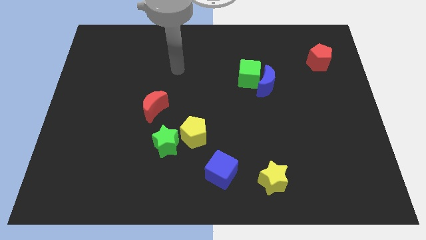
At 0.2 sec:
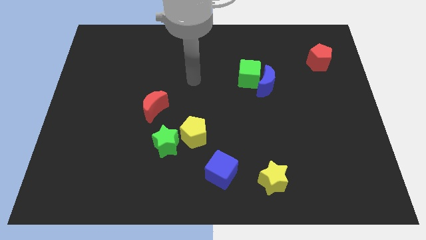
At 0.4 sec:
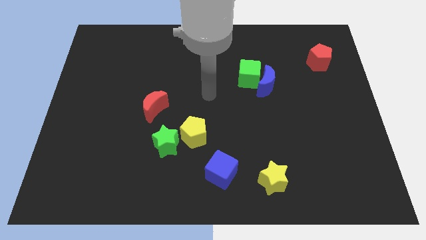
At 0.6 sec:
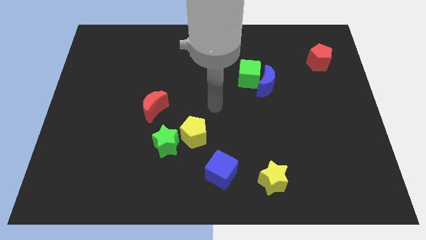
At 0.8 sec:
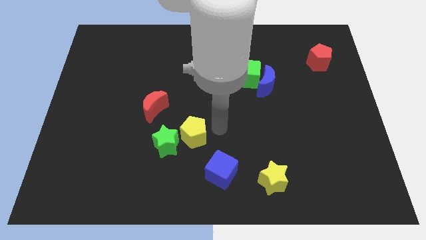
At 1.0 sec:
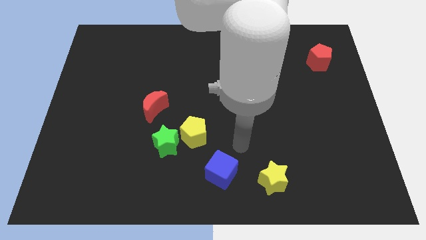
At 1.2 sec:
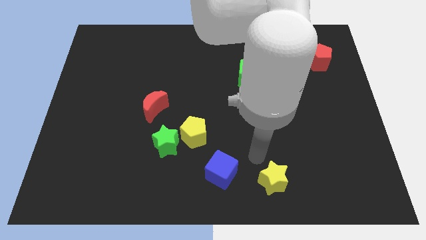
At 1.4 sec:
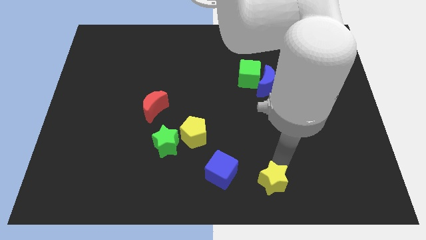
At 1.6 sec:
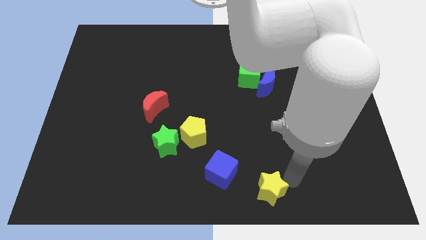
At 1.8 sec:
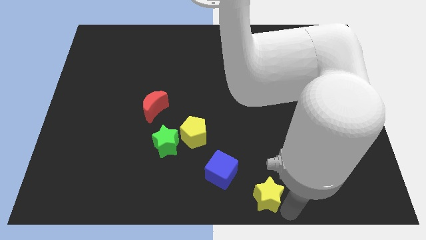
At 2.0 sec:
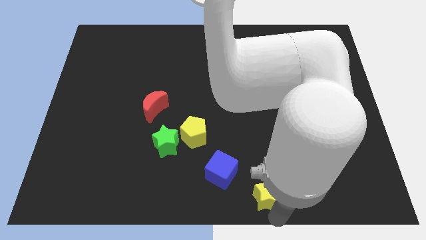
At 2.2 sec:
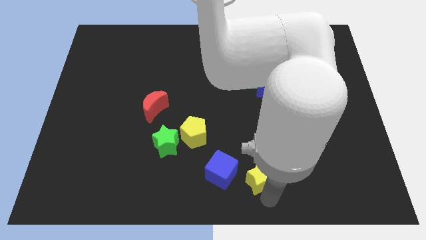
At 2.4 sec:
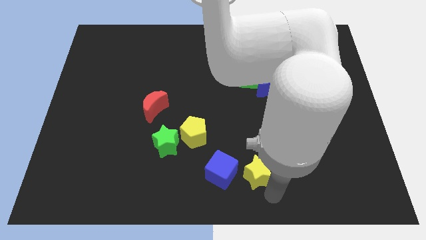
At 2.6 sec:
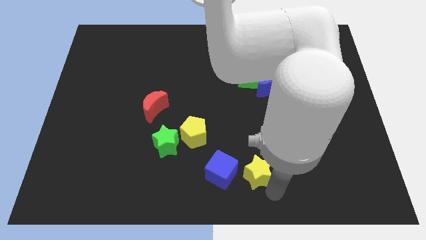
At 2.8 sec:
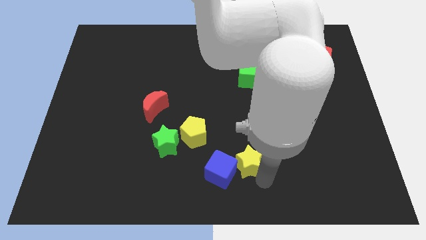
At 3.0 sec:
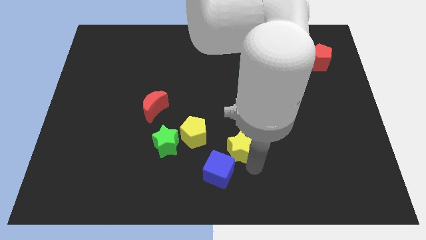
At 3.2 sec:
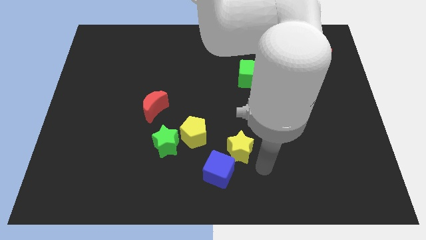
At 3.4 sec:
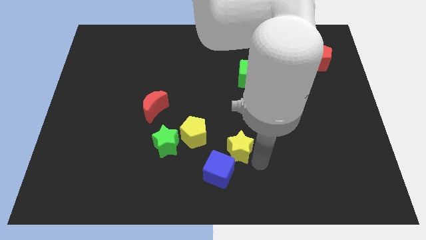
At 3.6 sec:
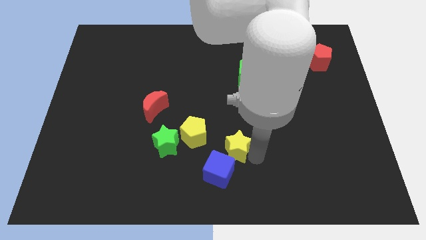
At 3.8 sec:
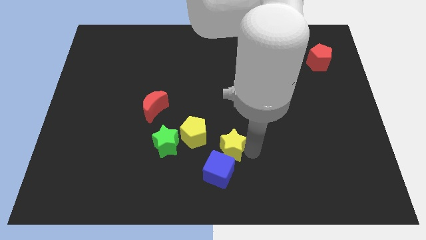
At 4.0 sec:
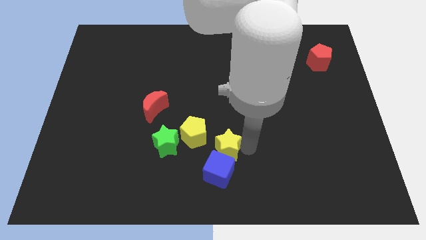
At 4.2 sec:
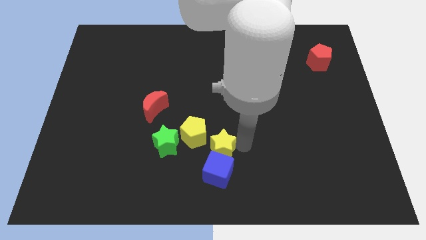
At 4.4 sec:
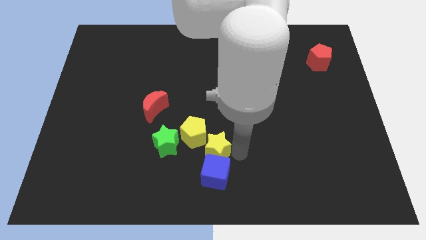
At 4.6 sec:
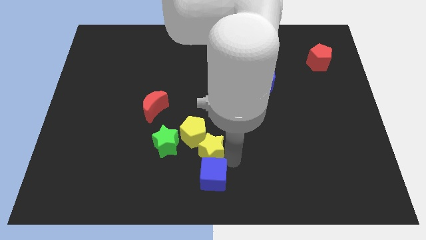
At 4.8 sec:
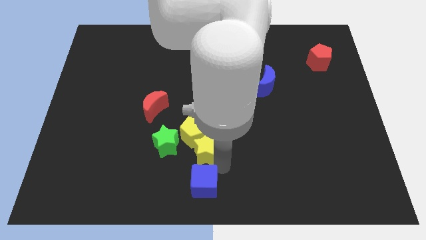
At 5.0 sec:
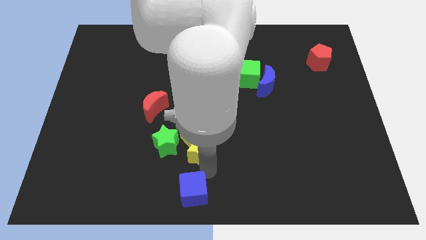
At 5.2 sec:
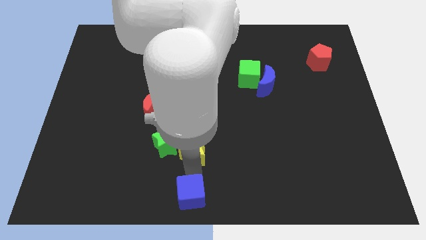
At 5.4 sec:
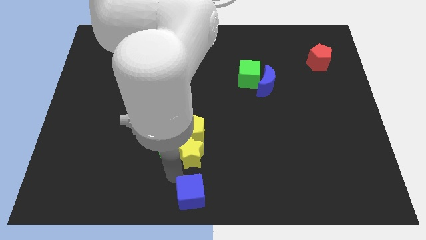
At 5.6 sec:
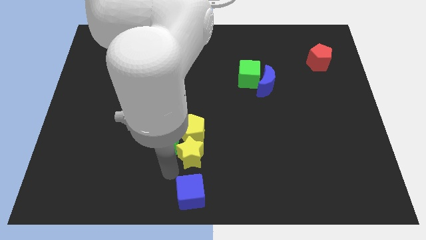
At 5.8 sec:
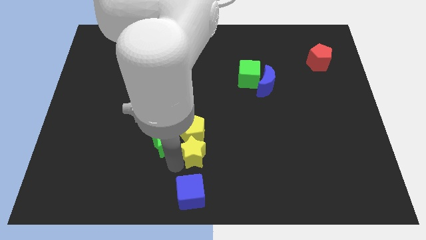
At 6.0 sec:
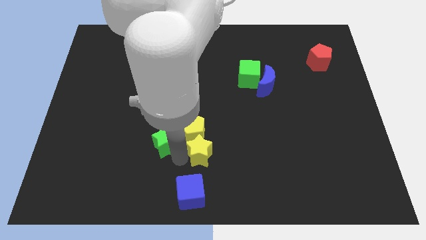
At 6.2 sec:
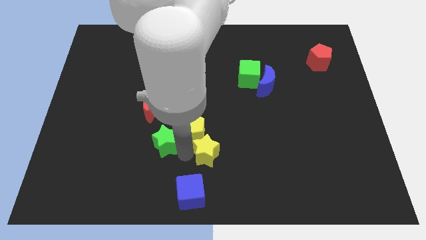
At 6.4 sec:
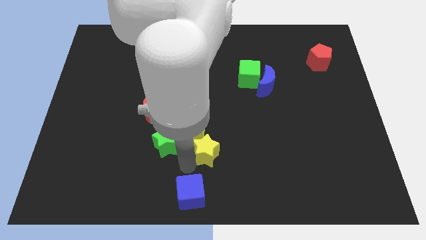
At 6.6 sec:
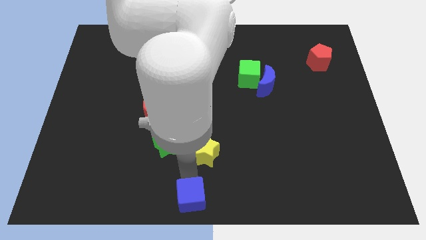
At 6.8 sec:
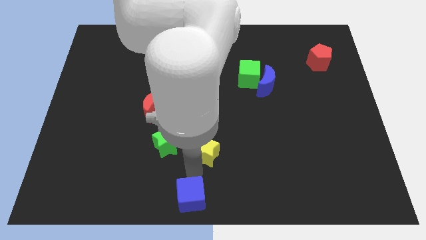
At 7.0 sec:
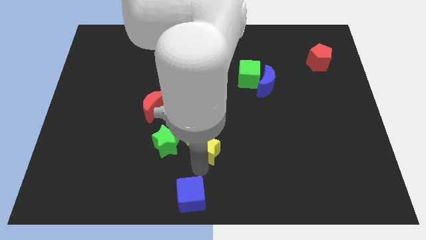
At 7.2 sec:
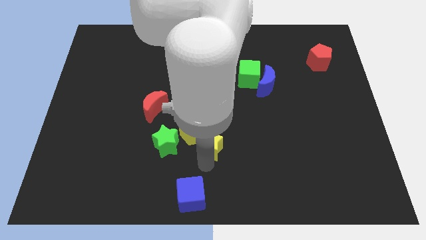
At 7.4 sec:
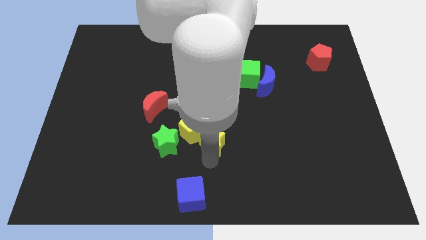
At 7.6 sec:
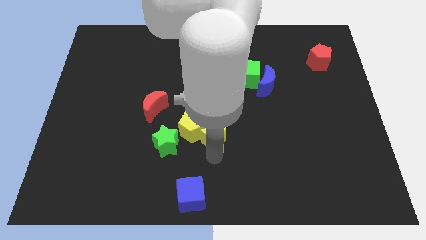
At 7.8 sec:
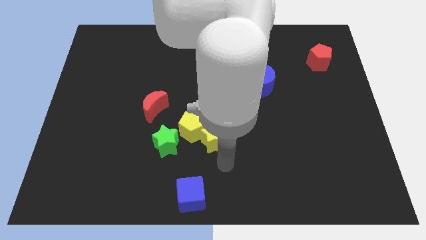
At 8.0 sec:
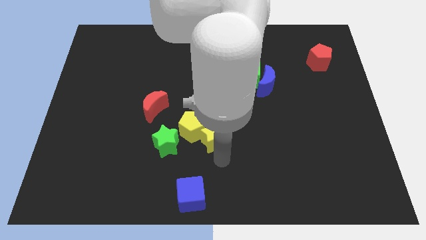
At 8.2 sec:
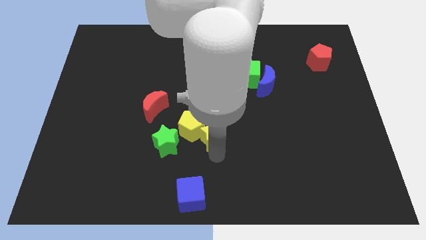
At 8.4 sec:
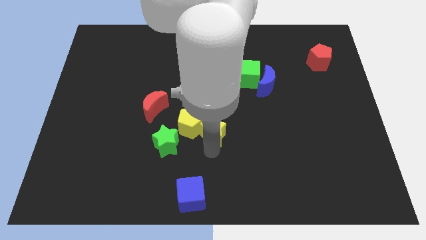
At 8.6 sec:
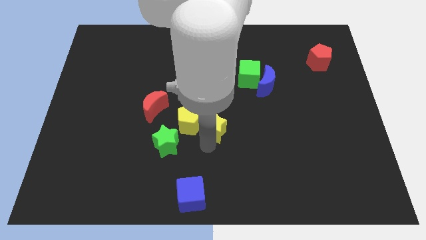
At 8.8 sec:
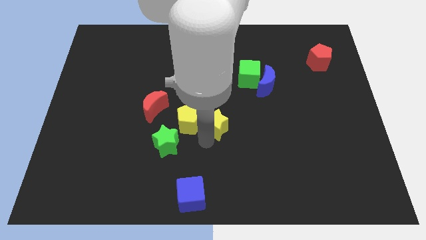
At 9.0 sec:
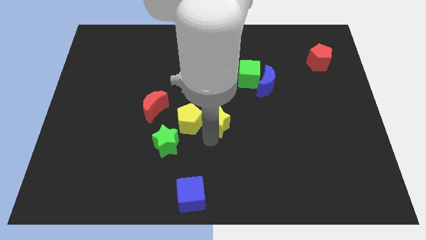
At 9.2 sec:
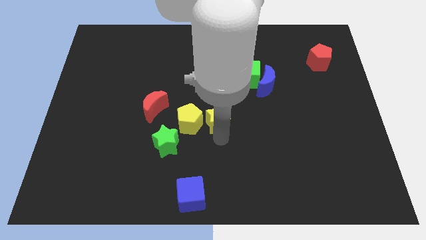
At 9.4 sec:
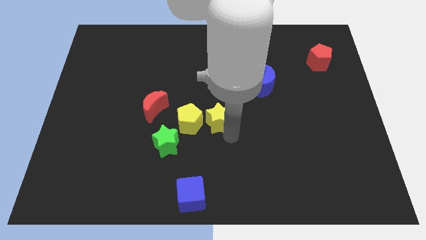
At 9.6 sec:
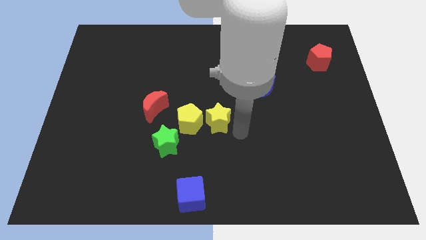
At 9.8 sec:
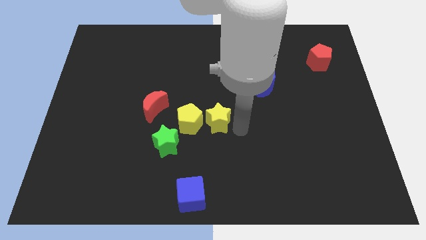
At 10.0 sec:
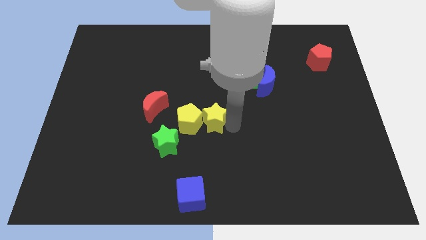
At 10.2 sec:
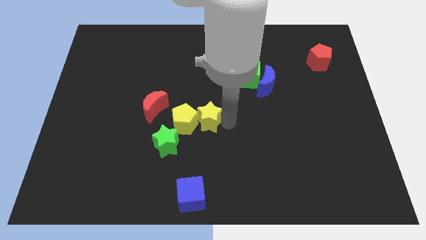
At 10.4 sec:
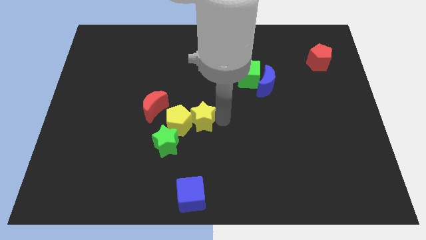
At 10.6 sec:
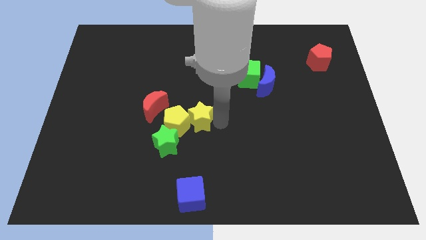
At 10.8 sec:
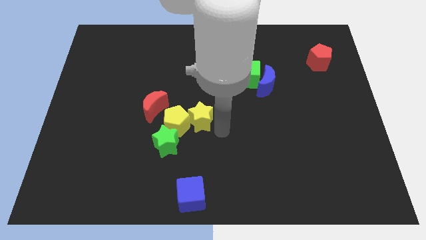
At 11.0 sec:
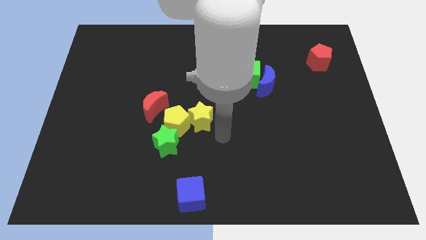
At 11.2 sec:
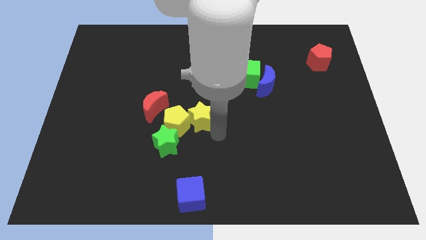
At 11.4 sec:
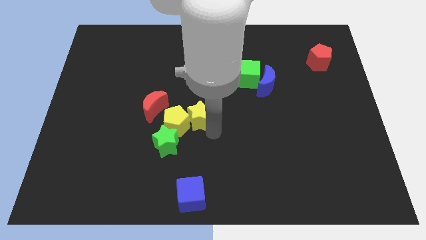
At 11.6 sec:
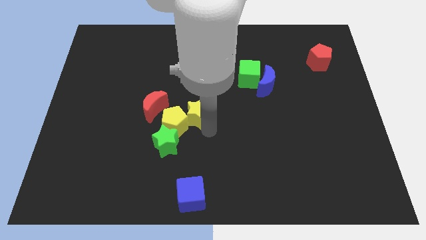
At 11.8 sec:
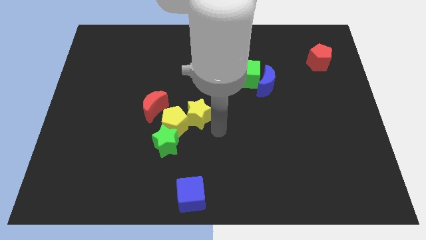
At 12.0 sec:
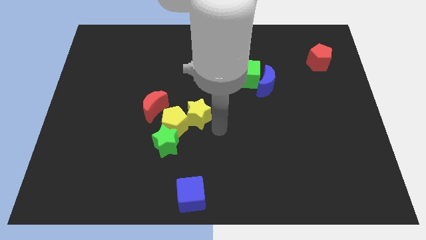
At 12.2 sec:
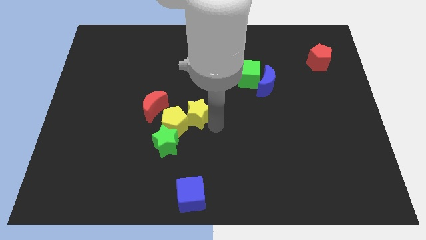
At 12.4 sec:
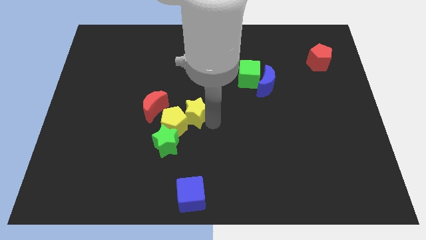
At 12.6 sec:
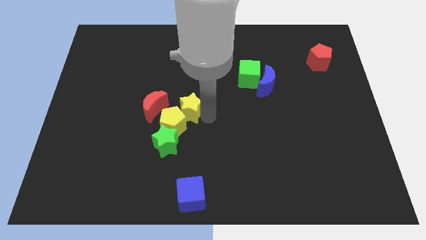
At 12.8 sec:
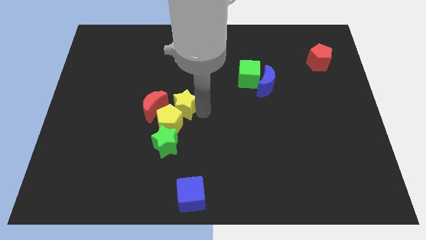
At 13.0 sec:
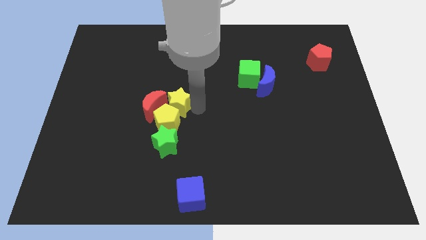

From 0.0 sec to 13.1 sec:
move the yellow star next to the red moon

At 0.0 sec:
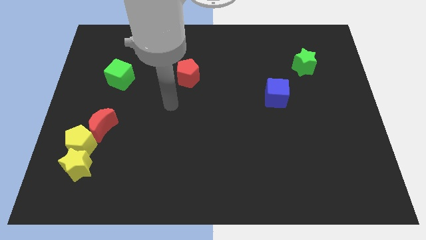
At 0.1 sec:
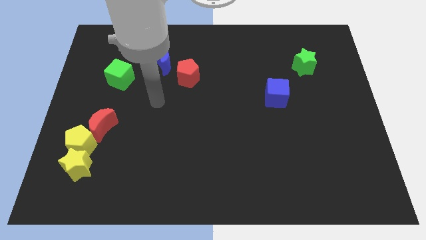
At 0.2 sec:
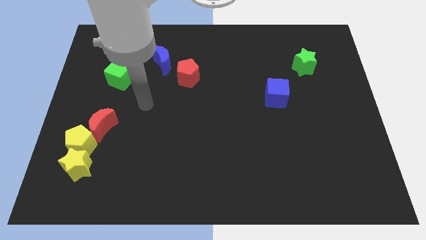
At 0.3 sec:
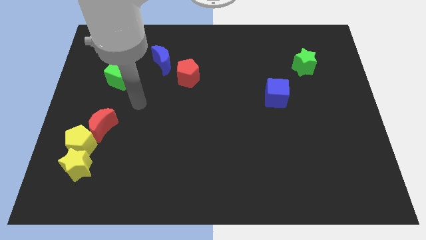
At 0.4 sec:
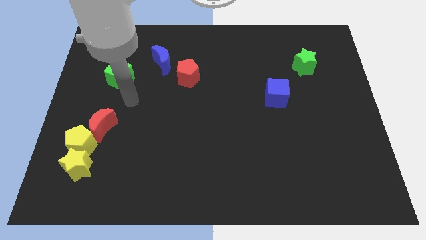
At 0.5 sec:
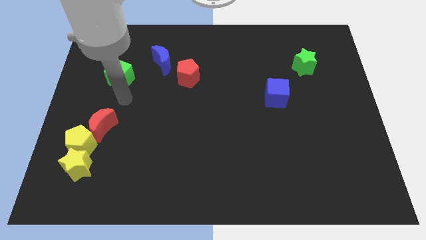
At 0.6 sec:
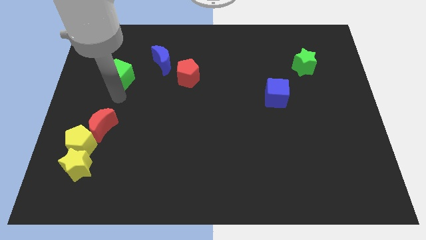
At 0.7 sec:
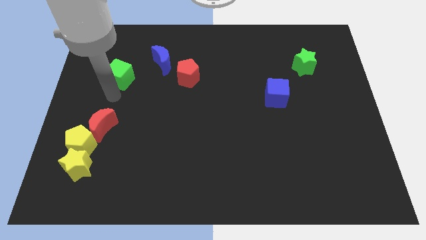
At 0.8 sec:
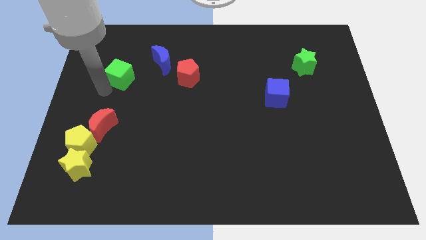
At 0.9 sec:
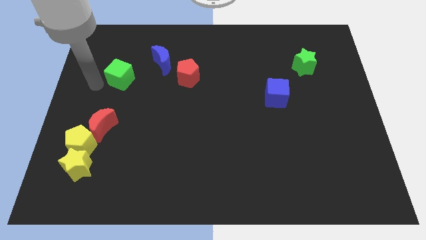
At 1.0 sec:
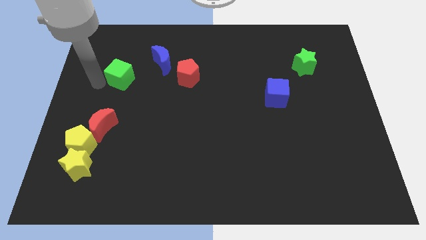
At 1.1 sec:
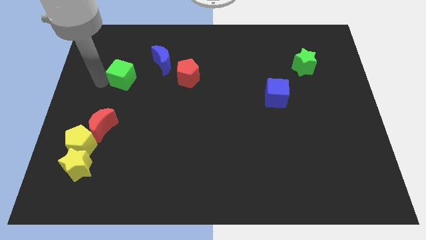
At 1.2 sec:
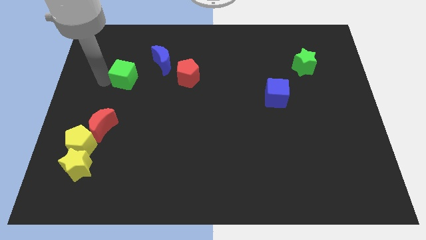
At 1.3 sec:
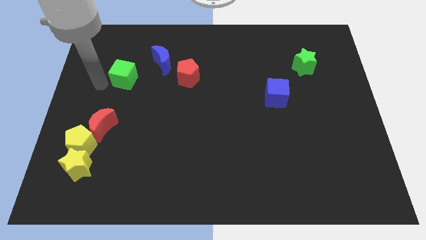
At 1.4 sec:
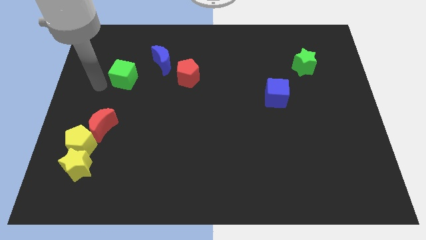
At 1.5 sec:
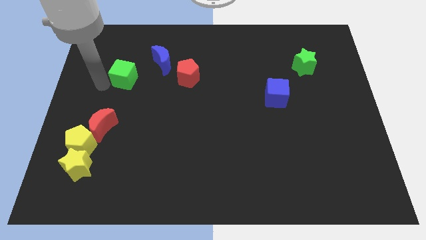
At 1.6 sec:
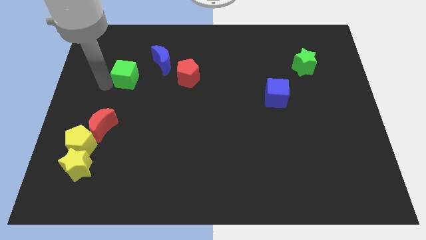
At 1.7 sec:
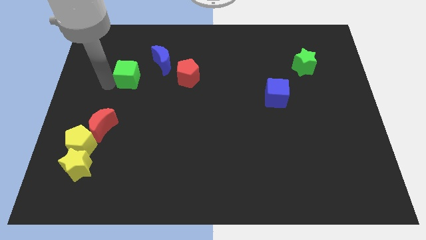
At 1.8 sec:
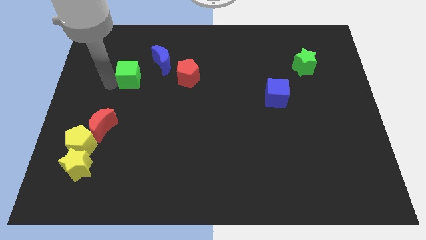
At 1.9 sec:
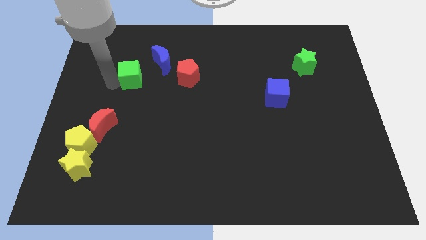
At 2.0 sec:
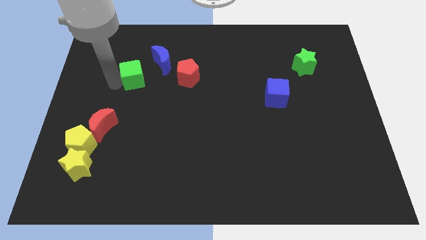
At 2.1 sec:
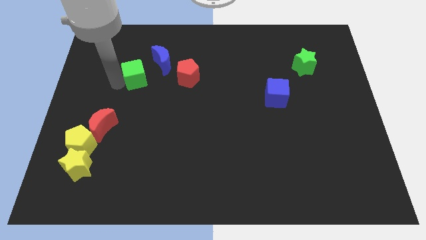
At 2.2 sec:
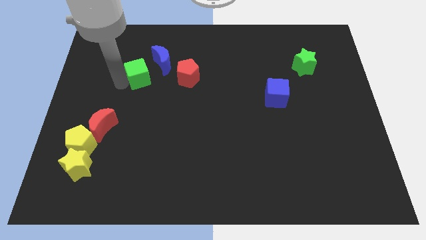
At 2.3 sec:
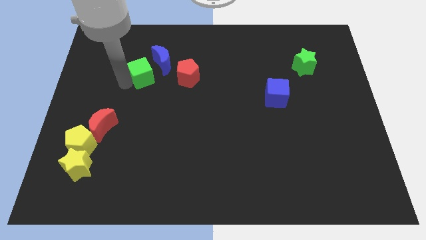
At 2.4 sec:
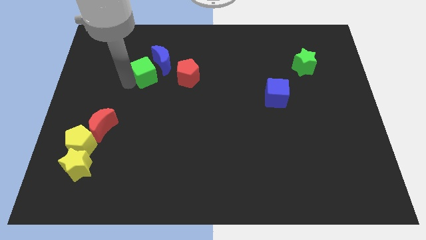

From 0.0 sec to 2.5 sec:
slide the green cube towards the blue moon
